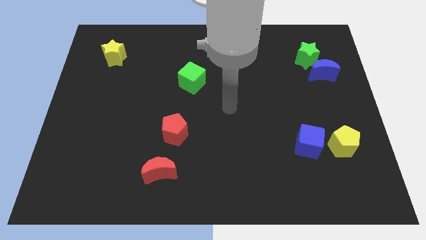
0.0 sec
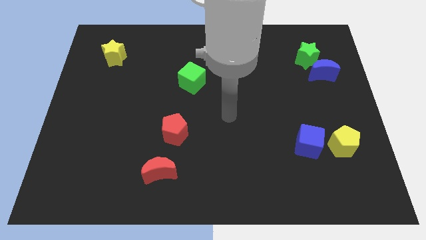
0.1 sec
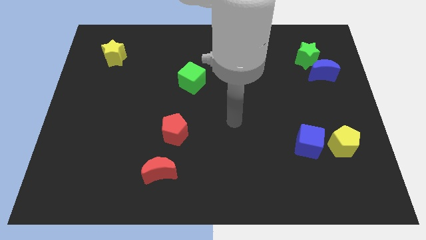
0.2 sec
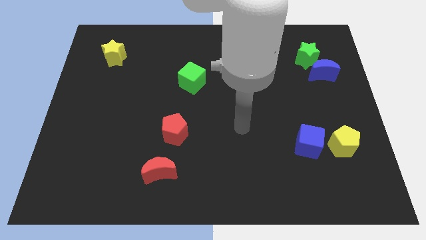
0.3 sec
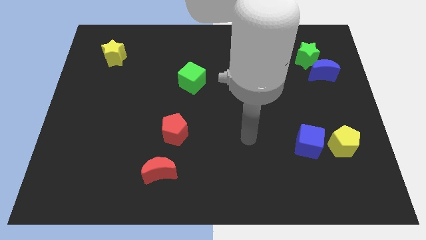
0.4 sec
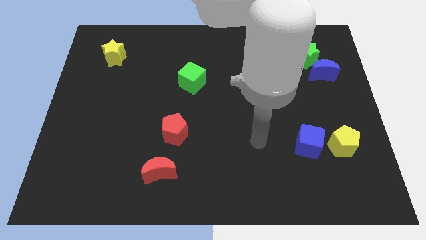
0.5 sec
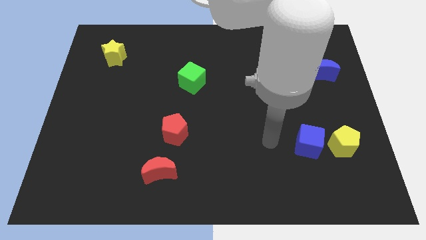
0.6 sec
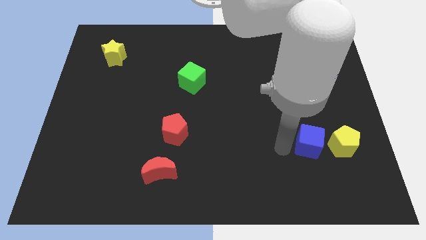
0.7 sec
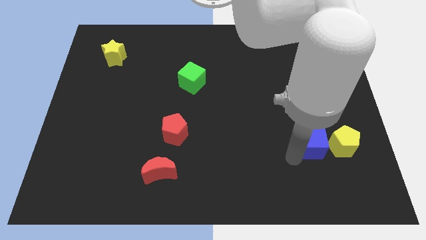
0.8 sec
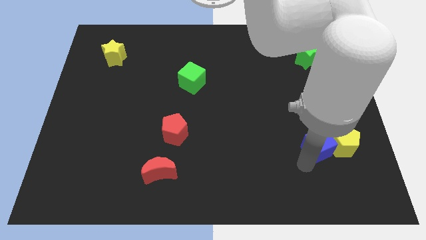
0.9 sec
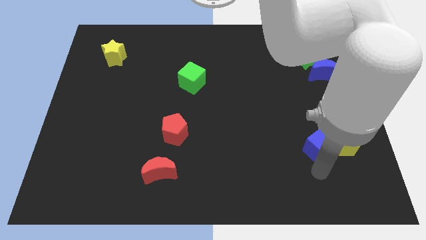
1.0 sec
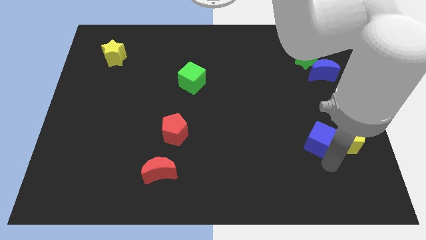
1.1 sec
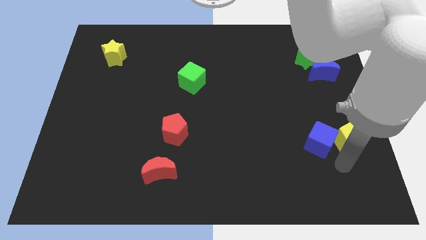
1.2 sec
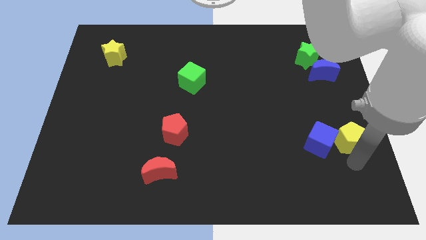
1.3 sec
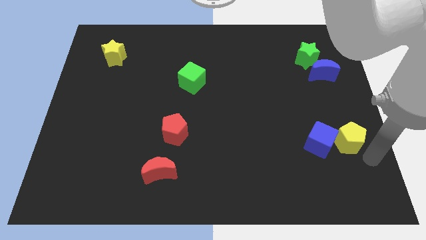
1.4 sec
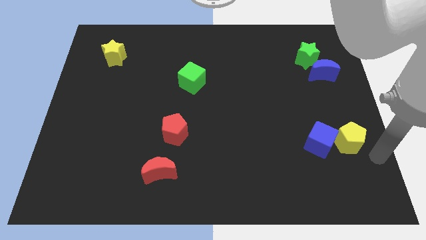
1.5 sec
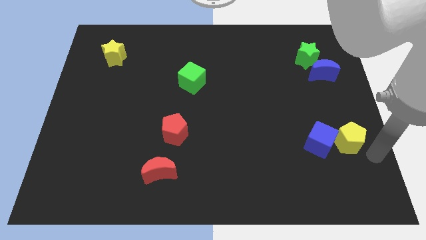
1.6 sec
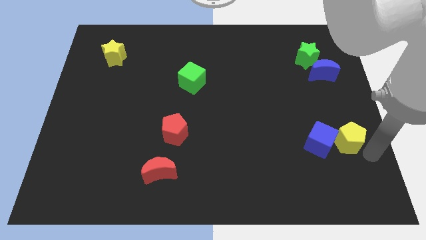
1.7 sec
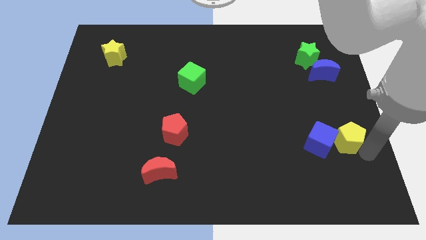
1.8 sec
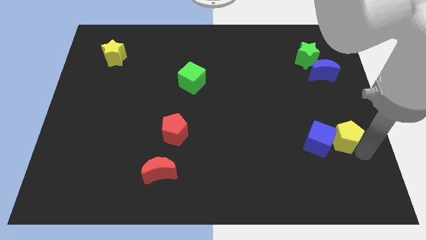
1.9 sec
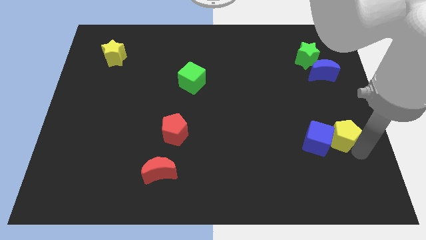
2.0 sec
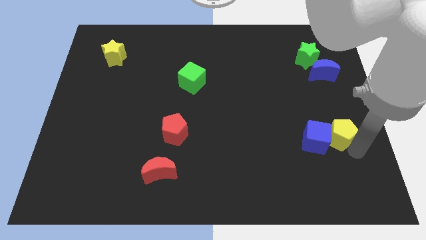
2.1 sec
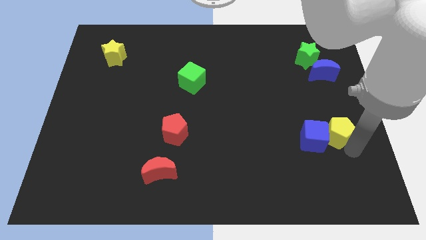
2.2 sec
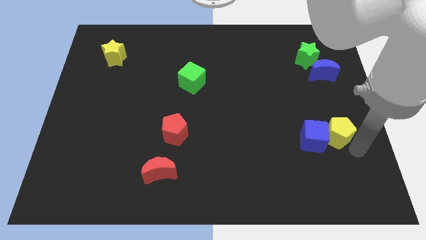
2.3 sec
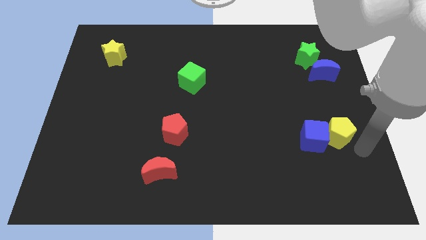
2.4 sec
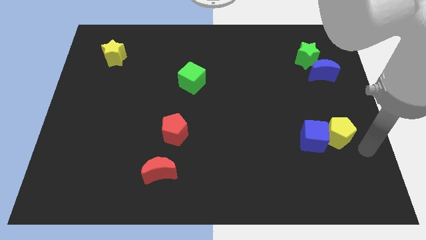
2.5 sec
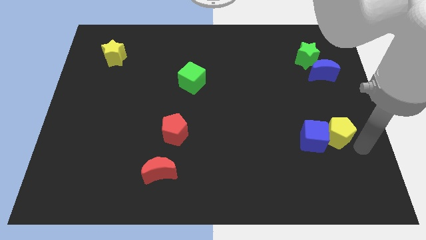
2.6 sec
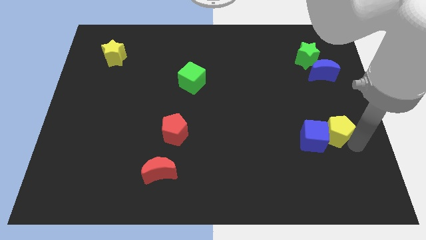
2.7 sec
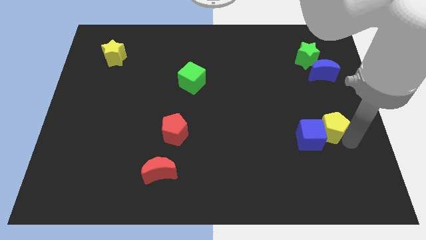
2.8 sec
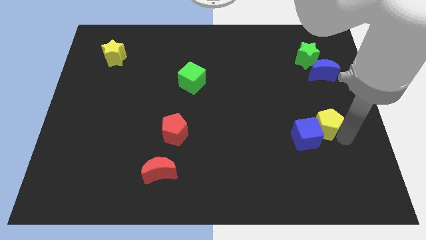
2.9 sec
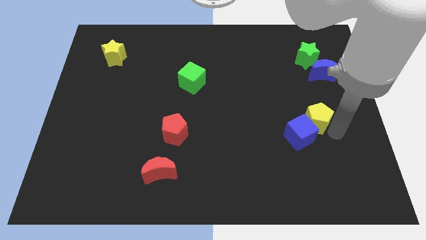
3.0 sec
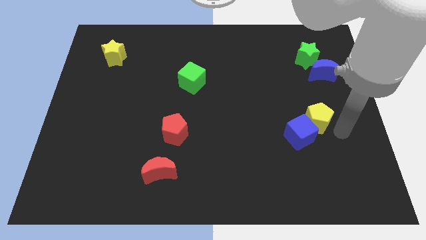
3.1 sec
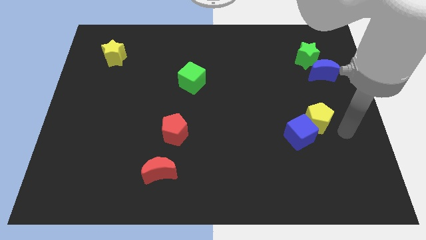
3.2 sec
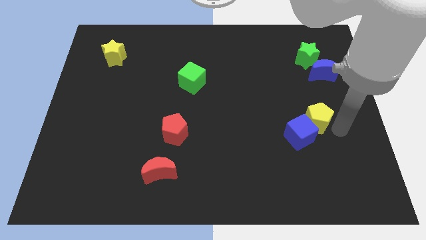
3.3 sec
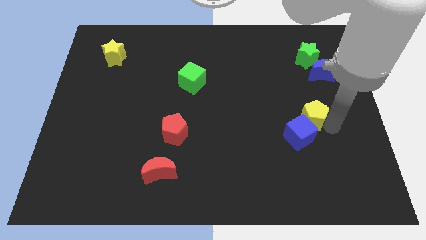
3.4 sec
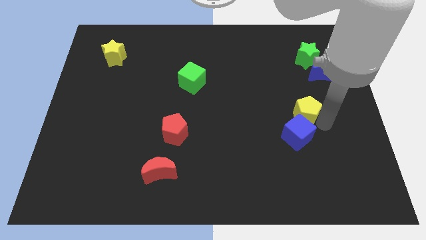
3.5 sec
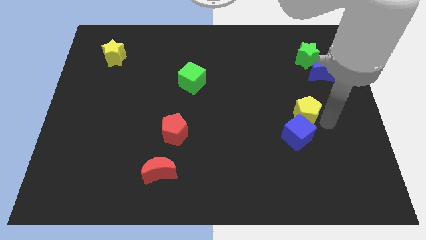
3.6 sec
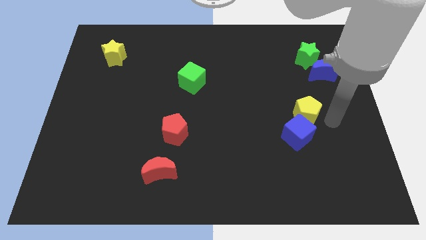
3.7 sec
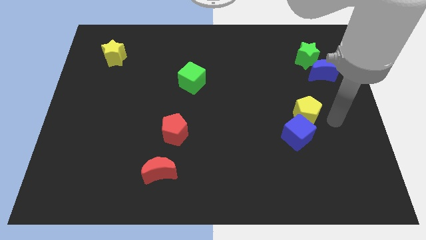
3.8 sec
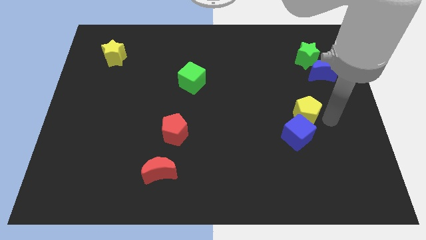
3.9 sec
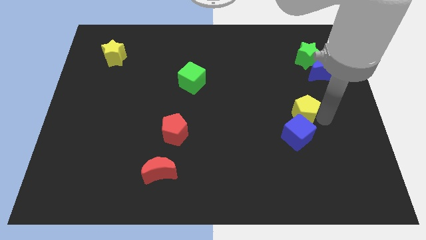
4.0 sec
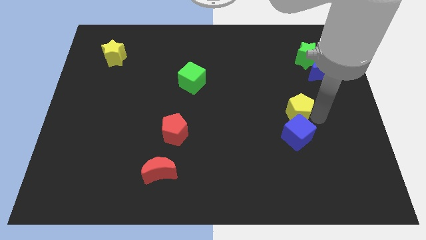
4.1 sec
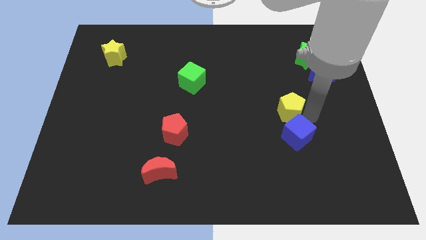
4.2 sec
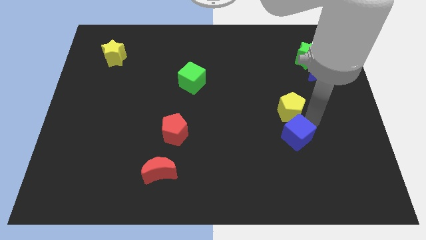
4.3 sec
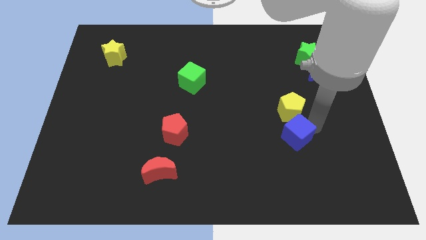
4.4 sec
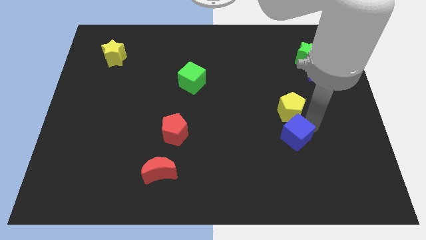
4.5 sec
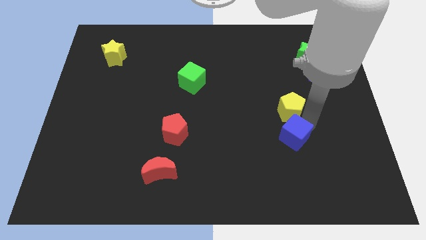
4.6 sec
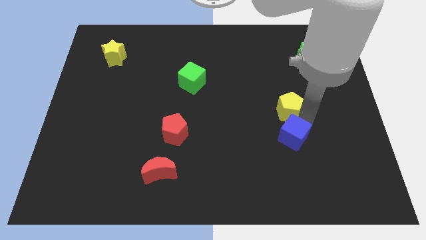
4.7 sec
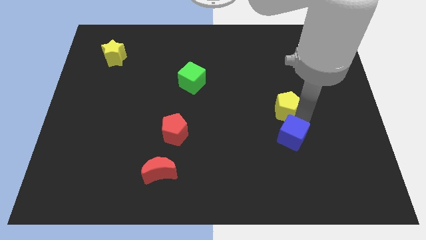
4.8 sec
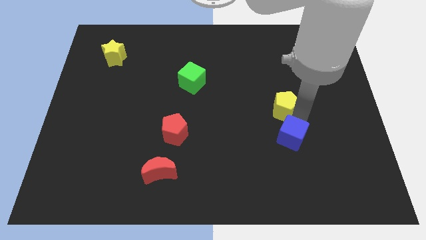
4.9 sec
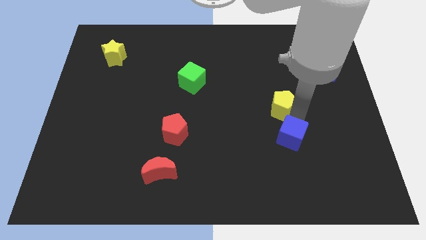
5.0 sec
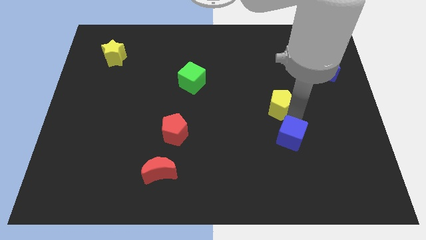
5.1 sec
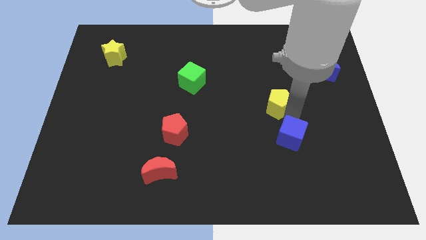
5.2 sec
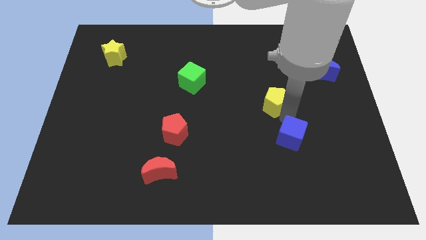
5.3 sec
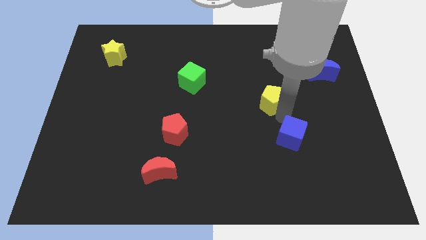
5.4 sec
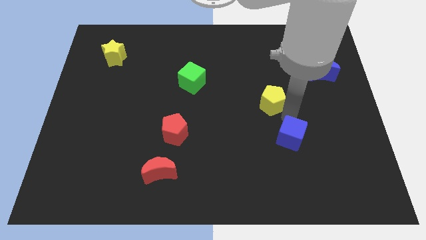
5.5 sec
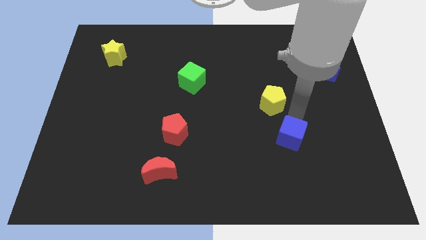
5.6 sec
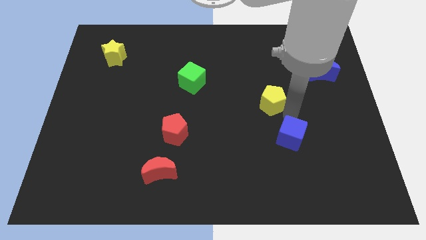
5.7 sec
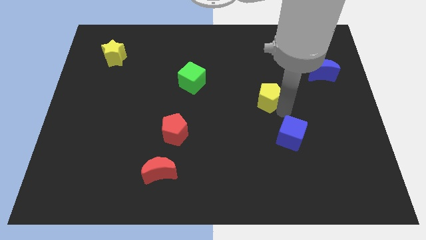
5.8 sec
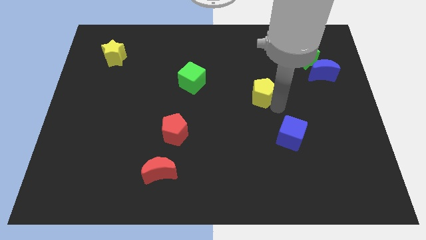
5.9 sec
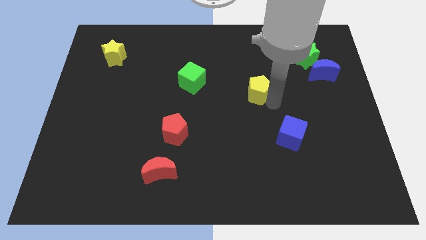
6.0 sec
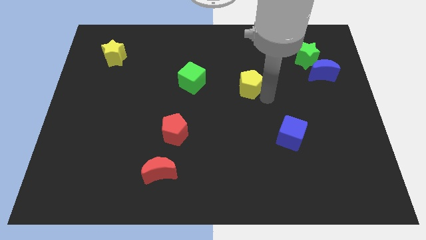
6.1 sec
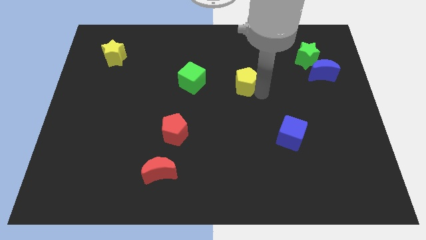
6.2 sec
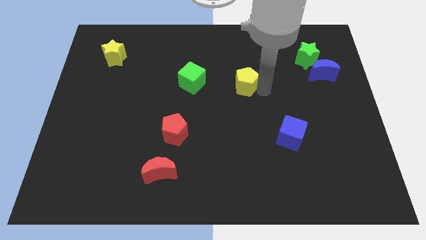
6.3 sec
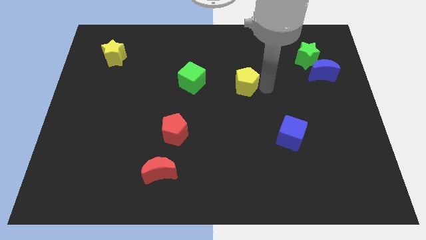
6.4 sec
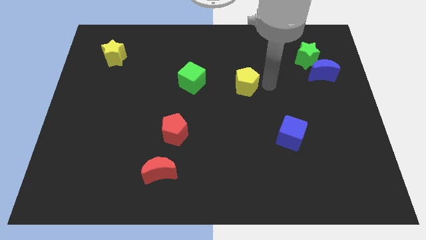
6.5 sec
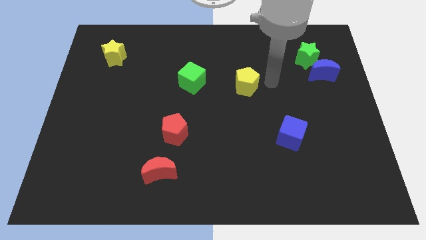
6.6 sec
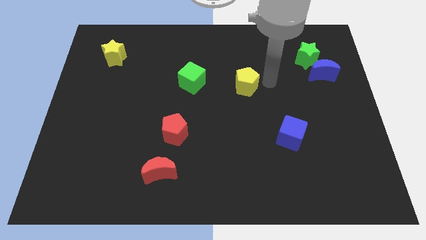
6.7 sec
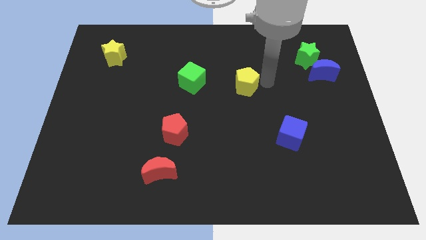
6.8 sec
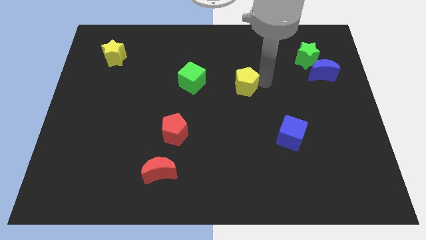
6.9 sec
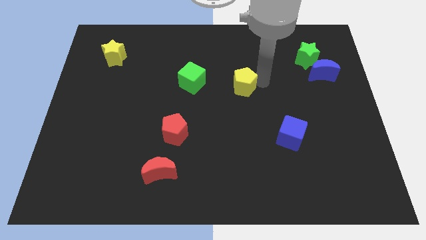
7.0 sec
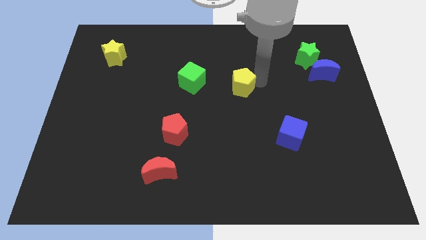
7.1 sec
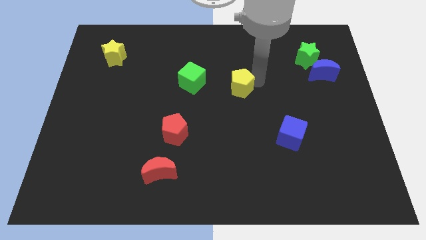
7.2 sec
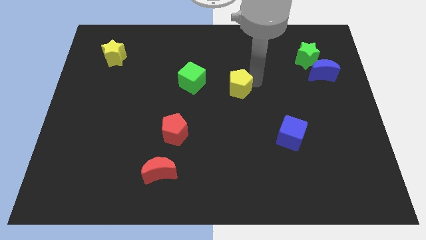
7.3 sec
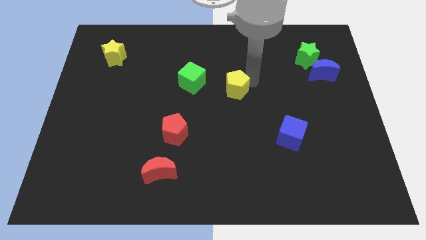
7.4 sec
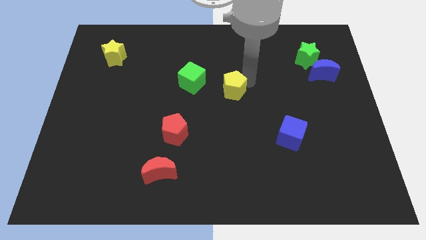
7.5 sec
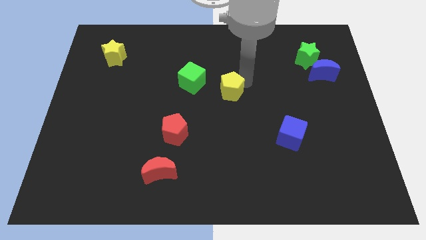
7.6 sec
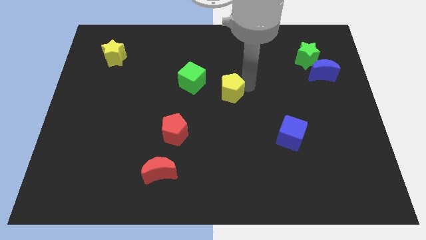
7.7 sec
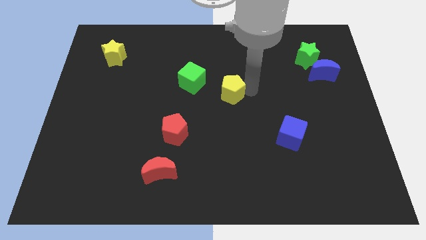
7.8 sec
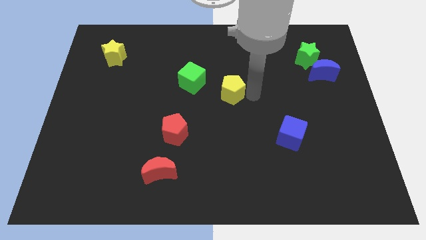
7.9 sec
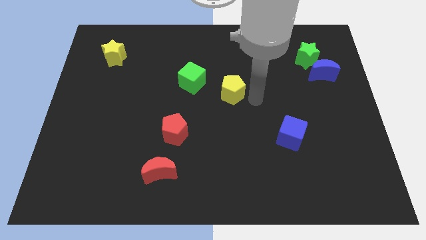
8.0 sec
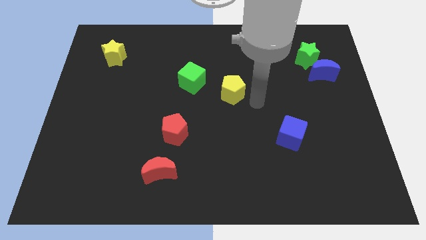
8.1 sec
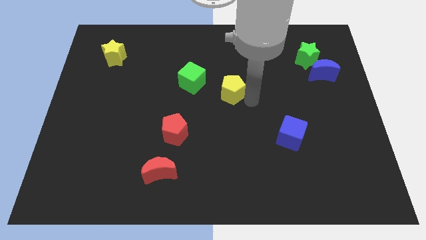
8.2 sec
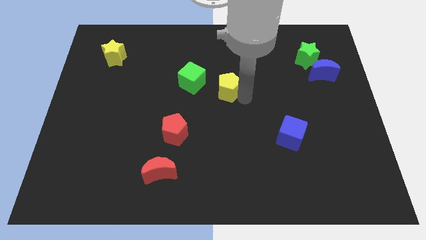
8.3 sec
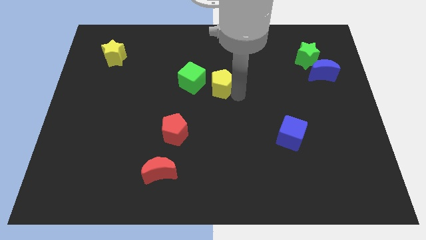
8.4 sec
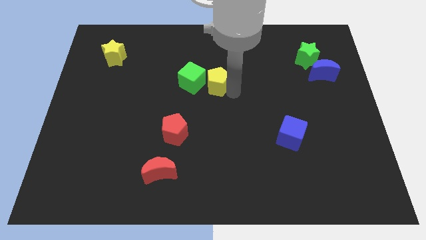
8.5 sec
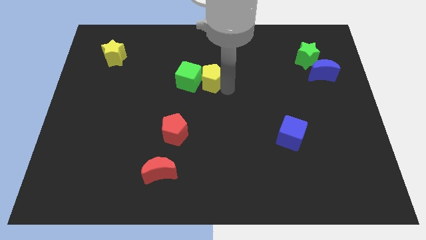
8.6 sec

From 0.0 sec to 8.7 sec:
push the yellow pentagon close to the green cube
